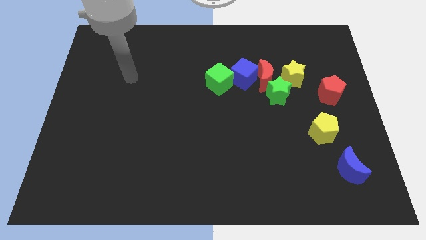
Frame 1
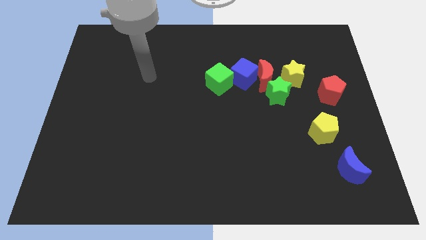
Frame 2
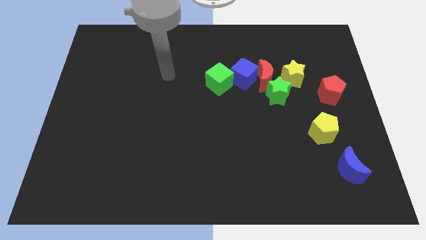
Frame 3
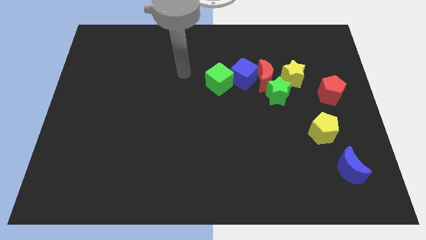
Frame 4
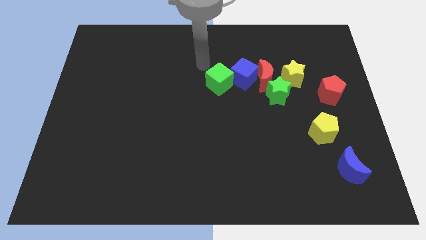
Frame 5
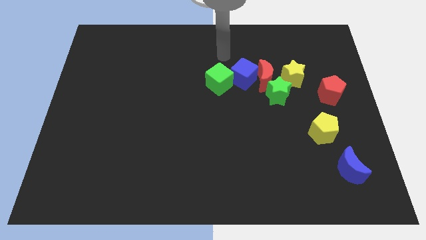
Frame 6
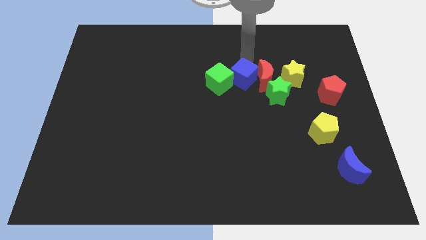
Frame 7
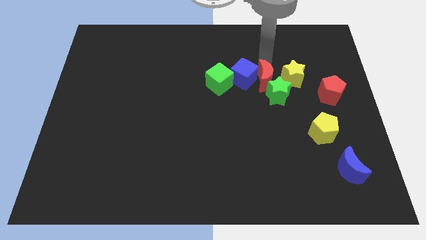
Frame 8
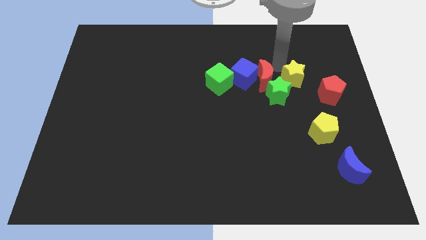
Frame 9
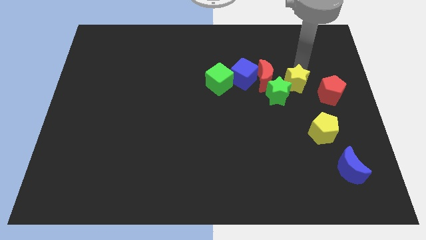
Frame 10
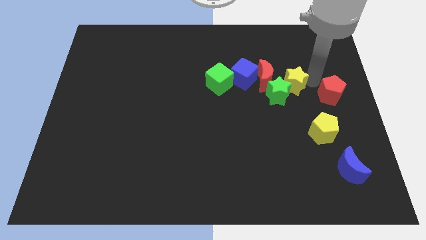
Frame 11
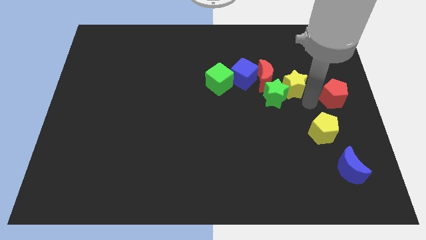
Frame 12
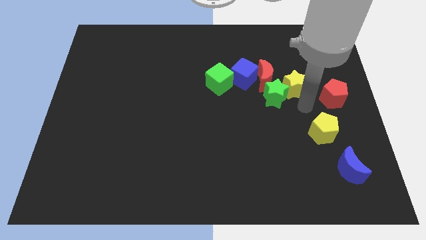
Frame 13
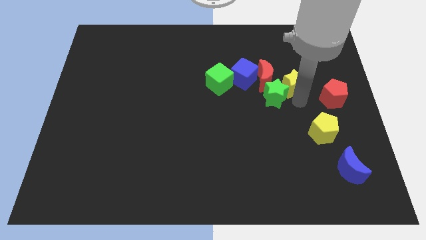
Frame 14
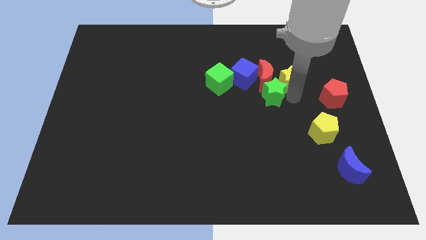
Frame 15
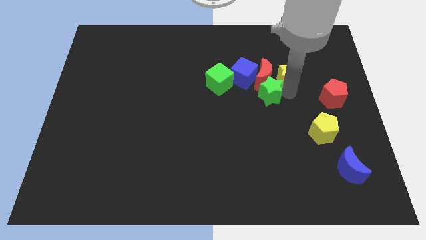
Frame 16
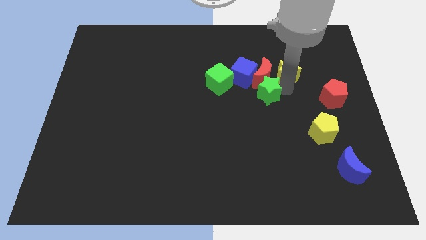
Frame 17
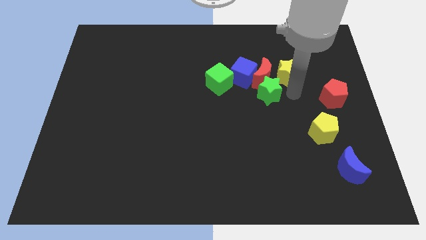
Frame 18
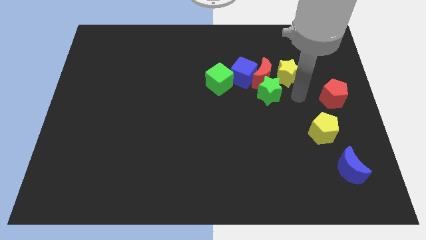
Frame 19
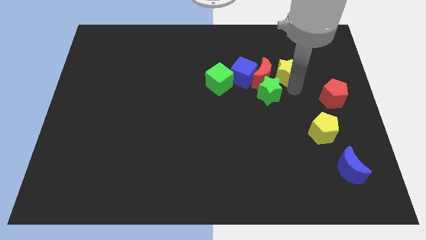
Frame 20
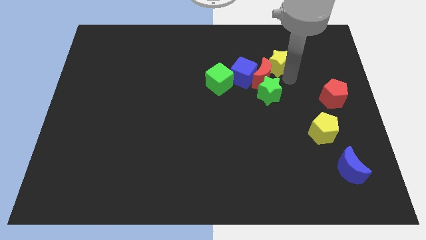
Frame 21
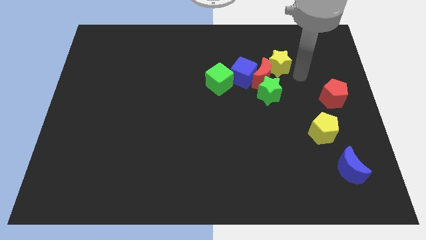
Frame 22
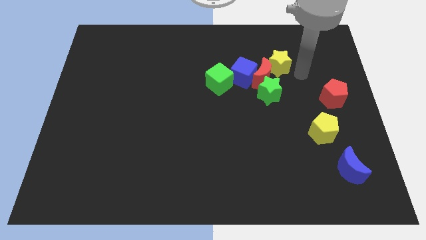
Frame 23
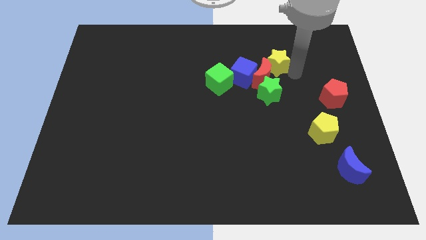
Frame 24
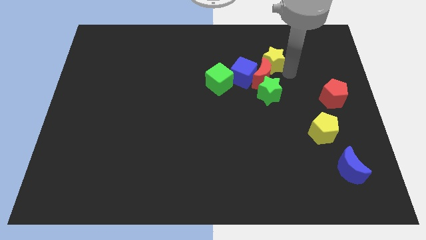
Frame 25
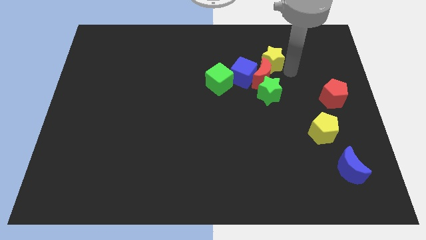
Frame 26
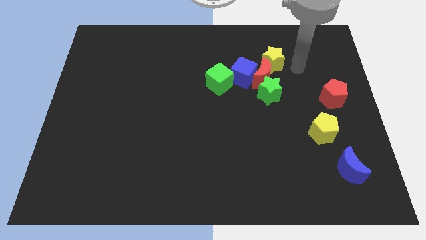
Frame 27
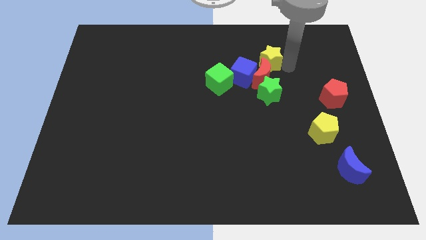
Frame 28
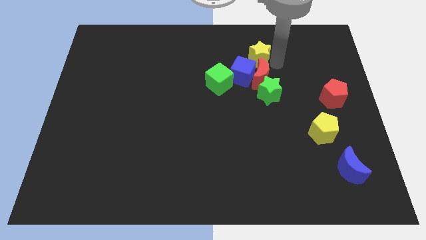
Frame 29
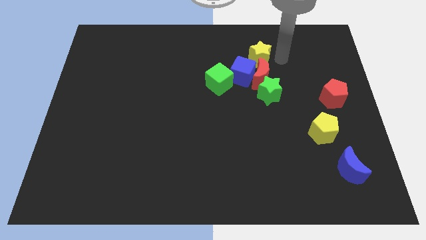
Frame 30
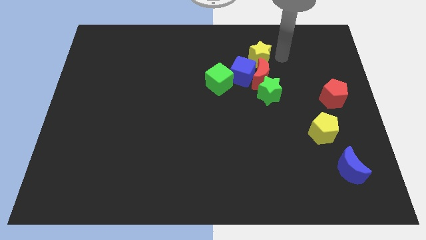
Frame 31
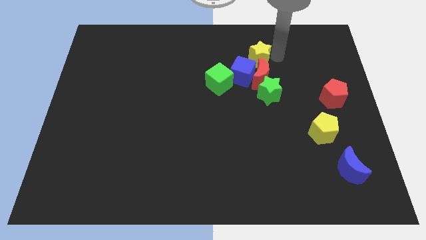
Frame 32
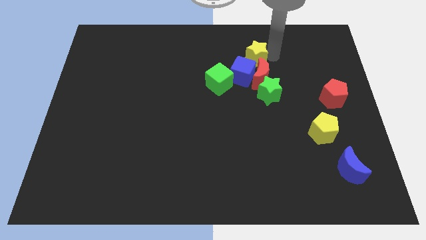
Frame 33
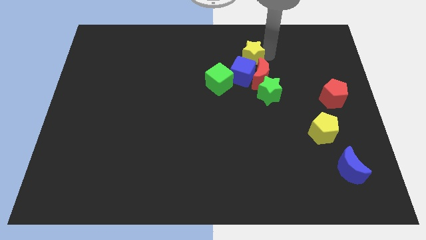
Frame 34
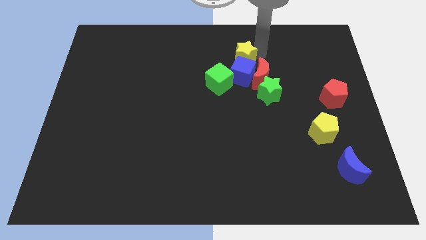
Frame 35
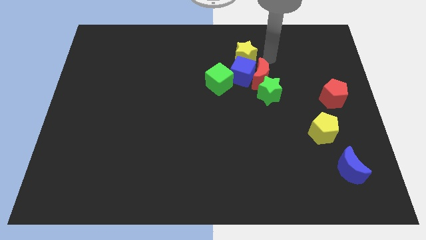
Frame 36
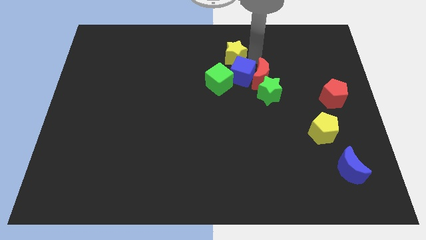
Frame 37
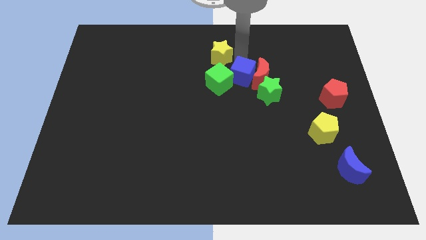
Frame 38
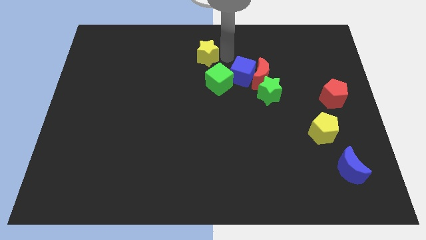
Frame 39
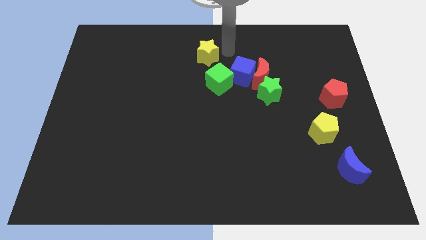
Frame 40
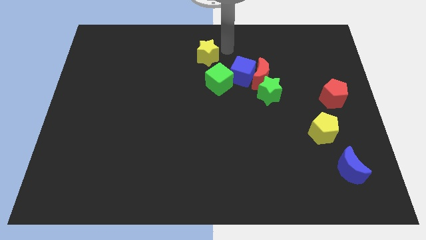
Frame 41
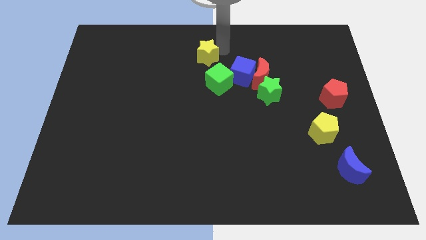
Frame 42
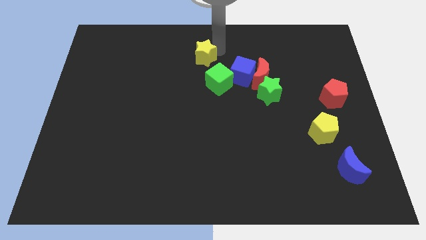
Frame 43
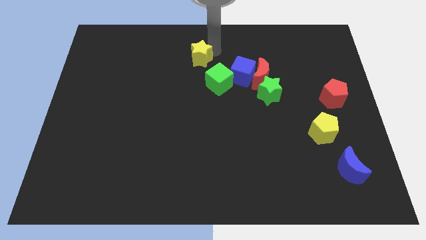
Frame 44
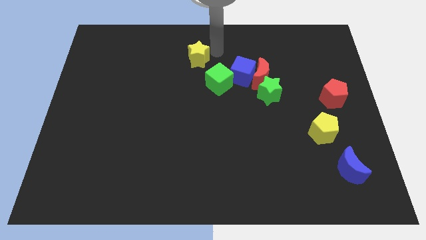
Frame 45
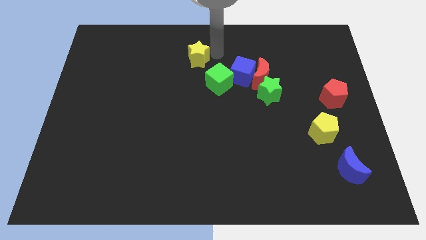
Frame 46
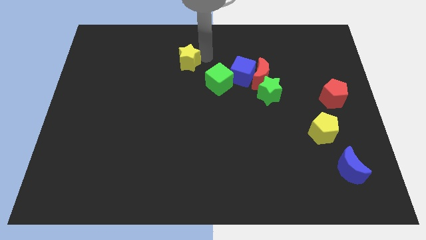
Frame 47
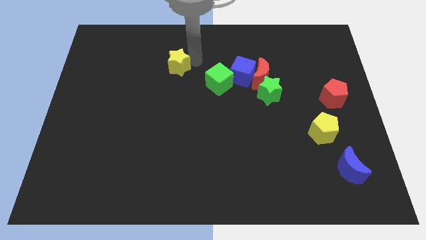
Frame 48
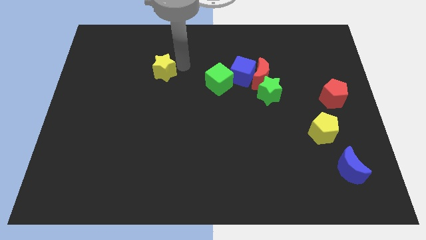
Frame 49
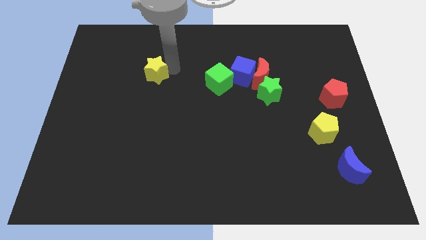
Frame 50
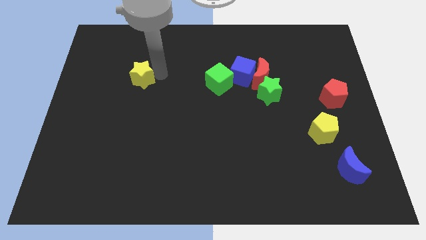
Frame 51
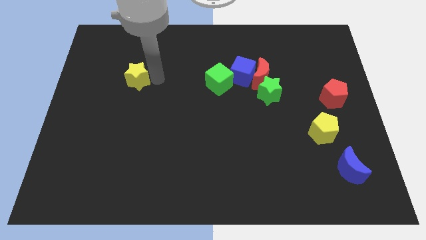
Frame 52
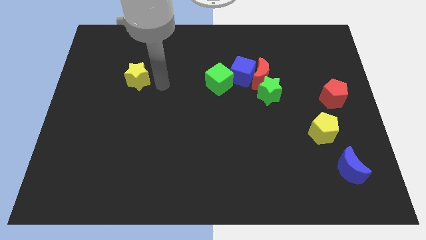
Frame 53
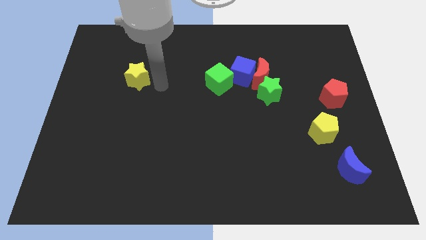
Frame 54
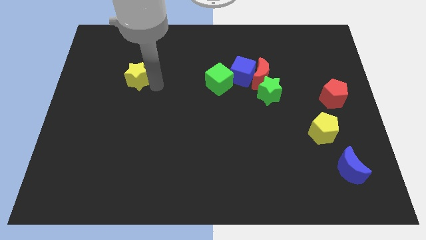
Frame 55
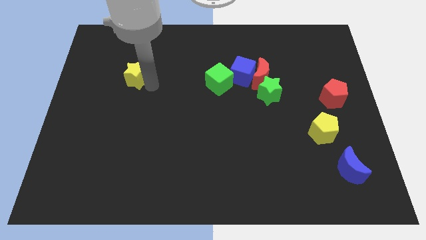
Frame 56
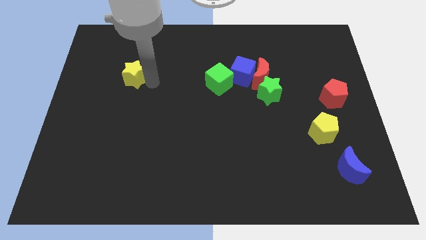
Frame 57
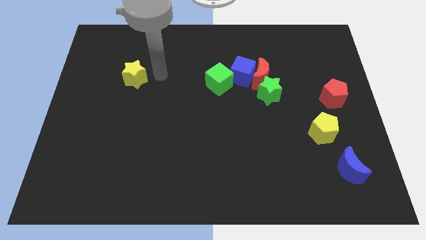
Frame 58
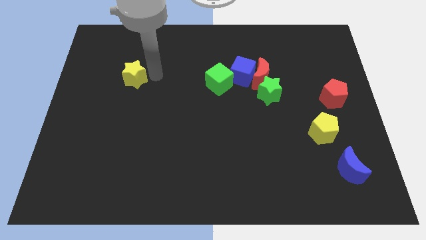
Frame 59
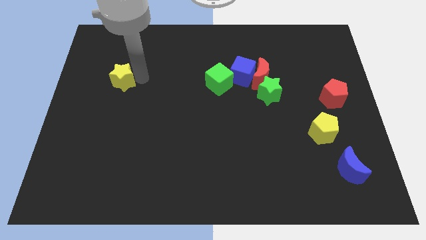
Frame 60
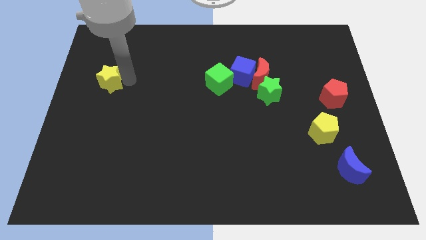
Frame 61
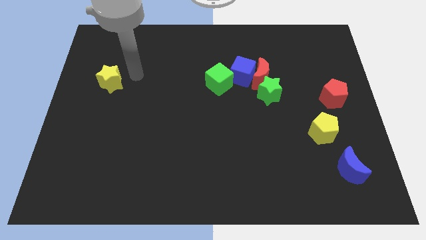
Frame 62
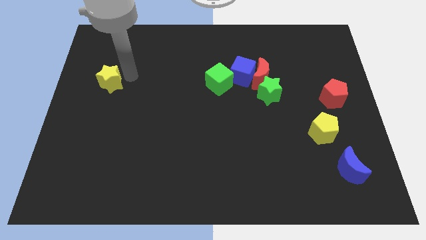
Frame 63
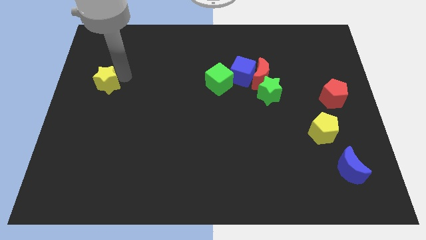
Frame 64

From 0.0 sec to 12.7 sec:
put the yellow star to the left side of the board
